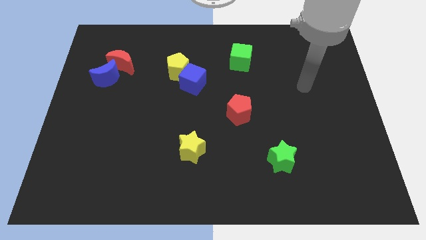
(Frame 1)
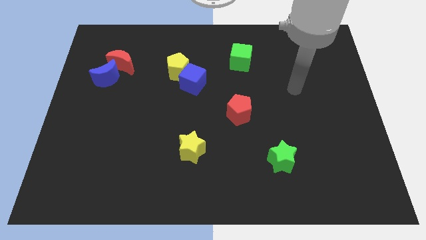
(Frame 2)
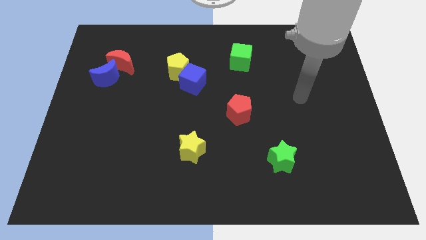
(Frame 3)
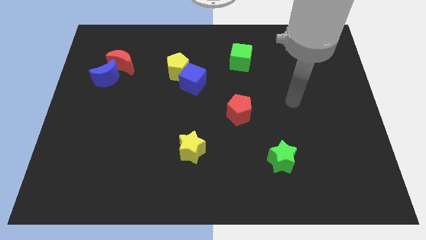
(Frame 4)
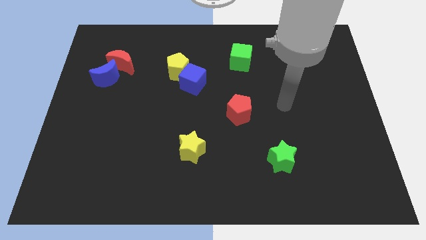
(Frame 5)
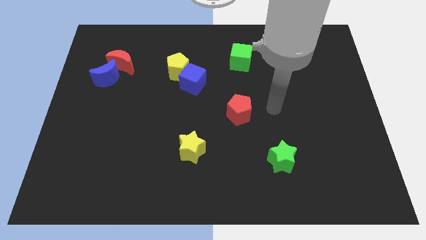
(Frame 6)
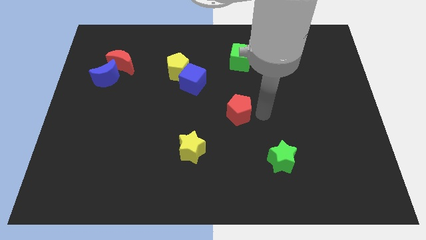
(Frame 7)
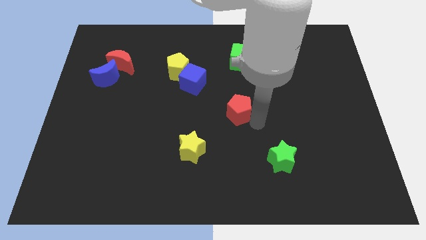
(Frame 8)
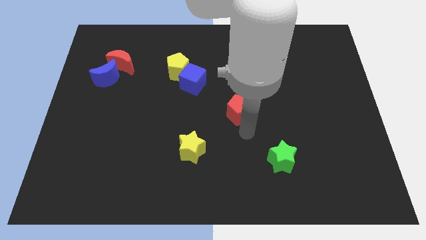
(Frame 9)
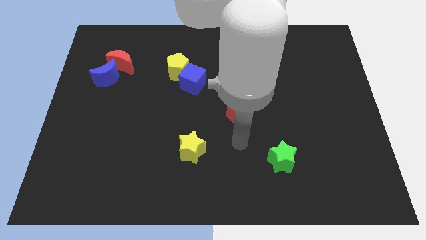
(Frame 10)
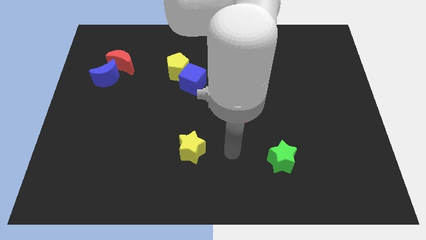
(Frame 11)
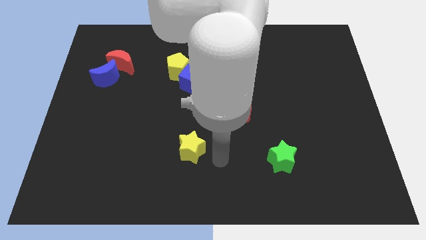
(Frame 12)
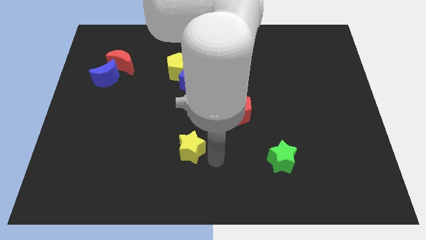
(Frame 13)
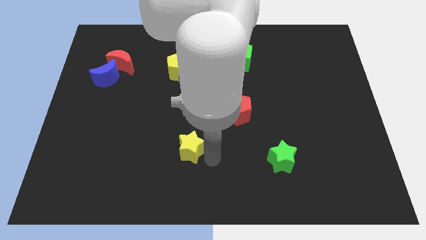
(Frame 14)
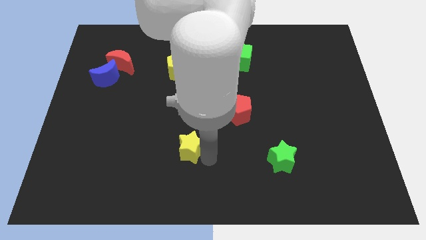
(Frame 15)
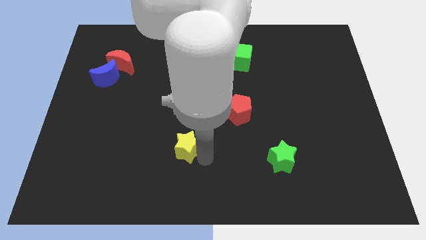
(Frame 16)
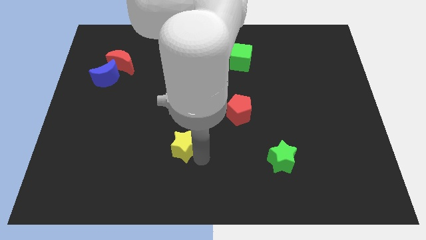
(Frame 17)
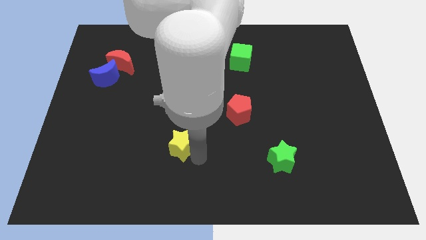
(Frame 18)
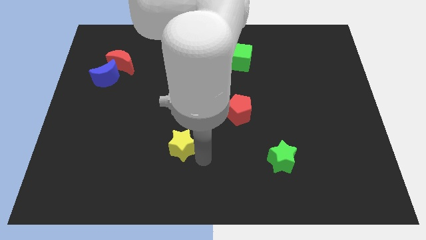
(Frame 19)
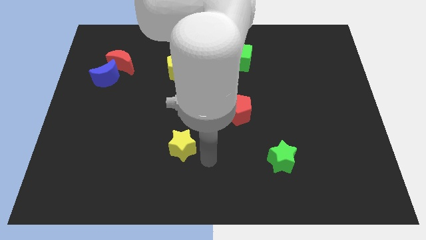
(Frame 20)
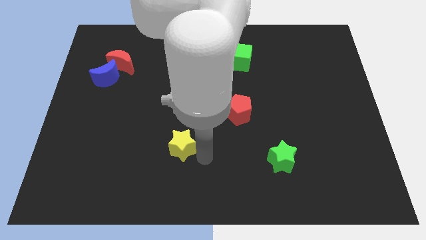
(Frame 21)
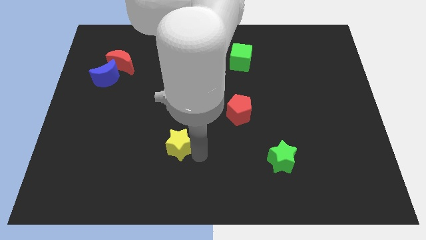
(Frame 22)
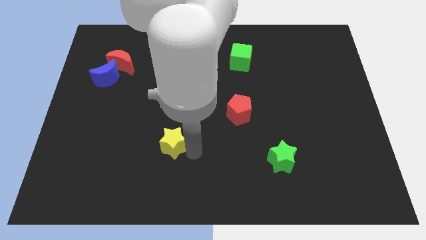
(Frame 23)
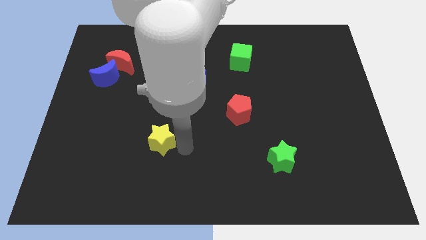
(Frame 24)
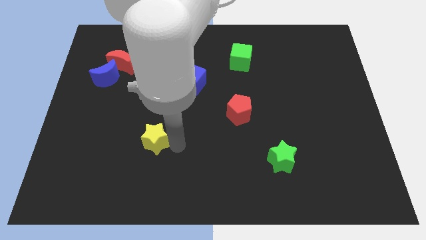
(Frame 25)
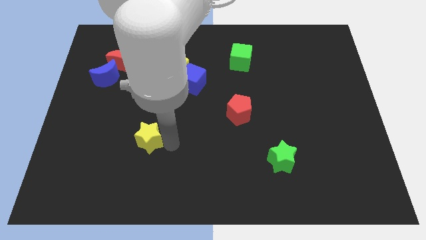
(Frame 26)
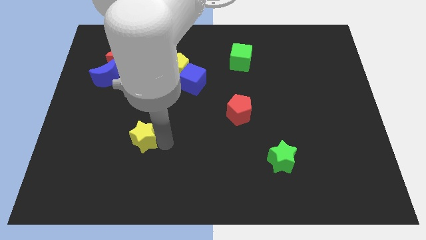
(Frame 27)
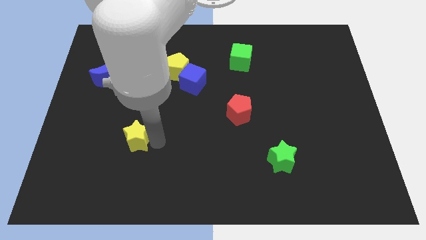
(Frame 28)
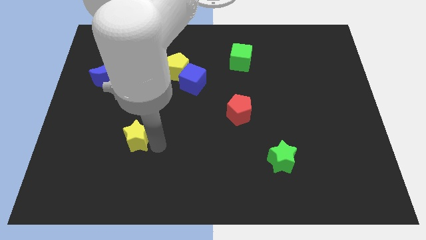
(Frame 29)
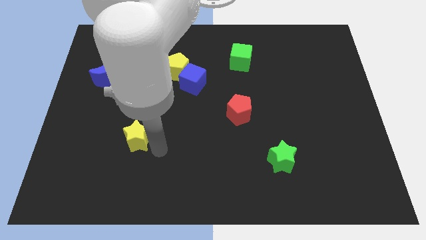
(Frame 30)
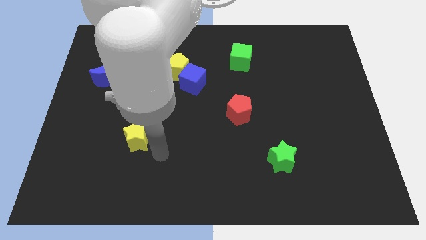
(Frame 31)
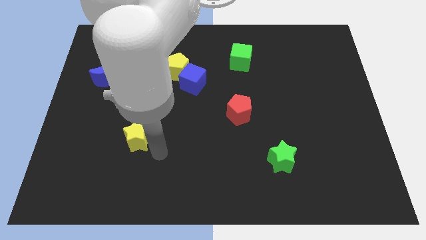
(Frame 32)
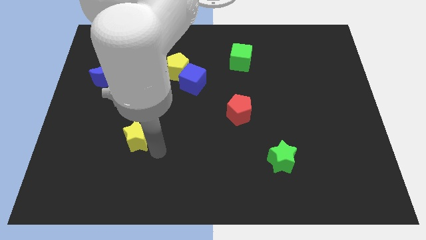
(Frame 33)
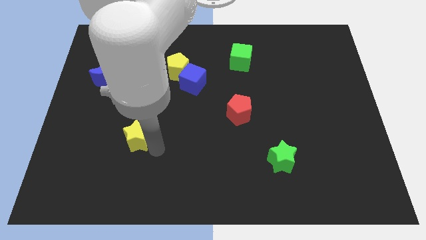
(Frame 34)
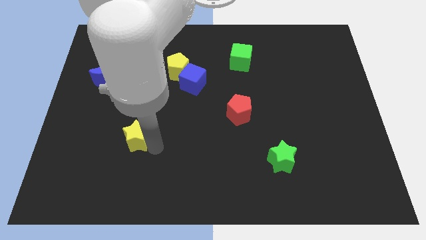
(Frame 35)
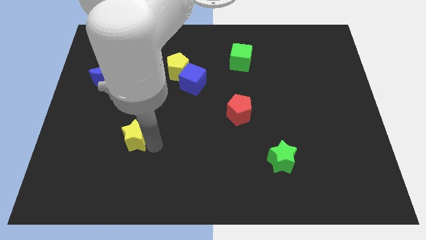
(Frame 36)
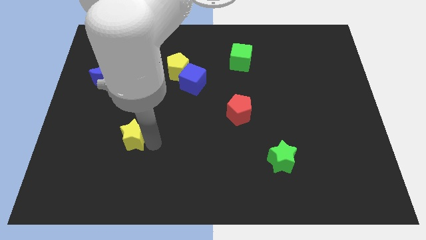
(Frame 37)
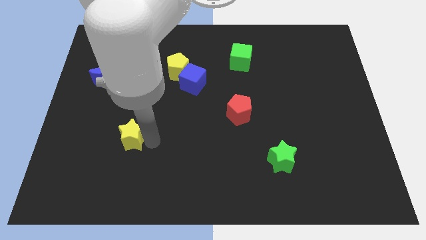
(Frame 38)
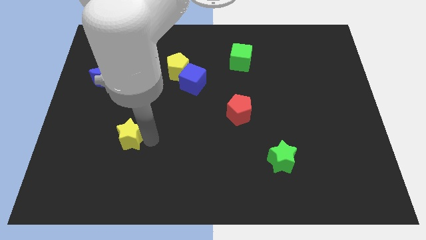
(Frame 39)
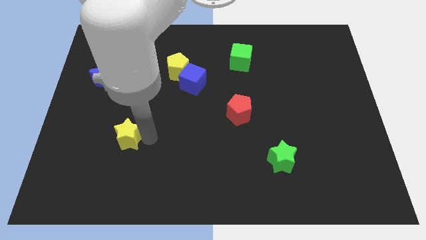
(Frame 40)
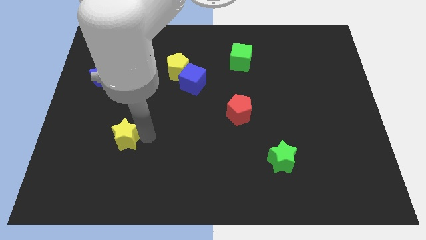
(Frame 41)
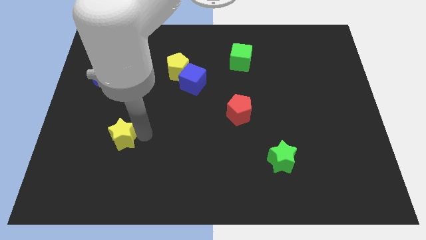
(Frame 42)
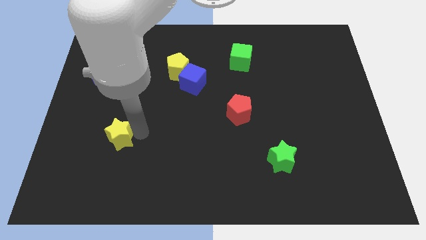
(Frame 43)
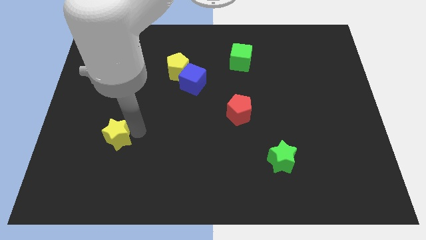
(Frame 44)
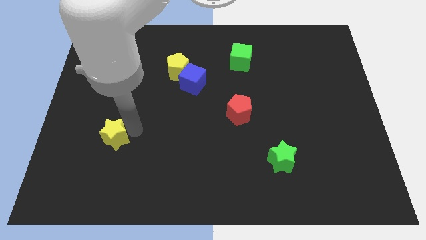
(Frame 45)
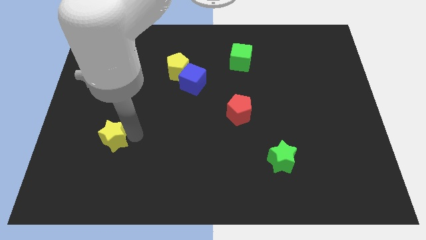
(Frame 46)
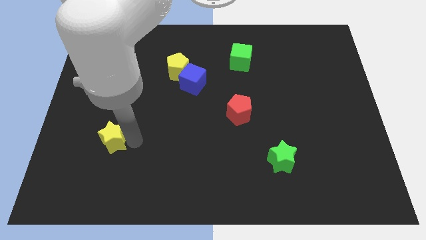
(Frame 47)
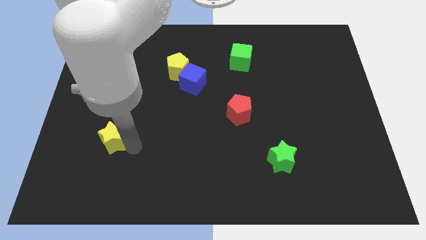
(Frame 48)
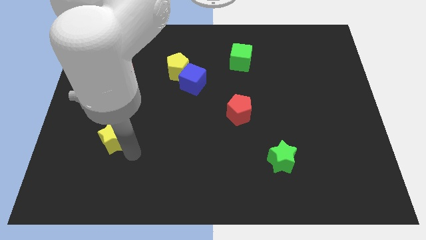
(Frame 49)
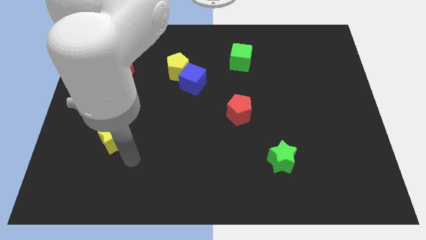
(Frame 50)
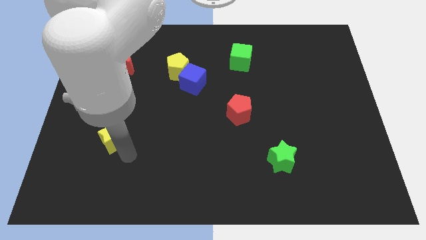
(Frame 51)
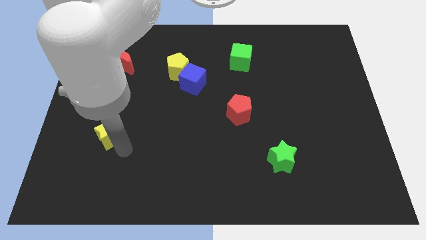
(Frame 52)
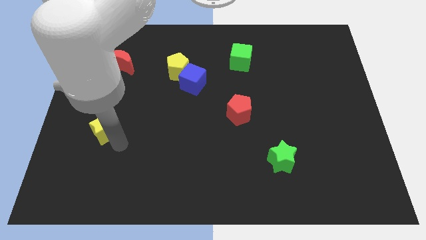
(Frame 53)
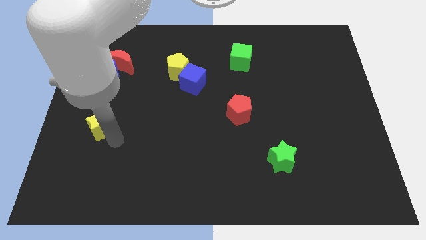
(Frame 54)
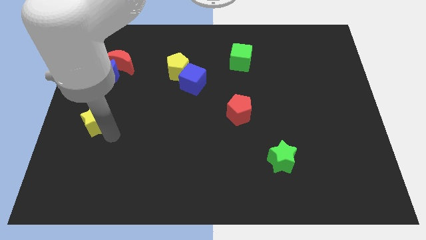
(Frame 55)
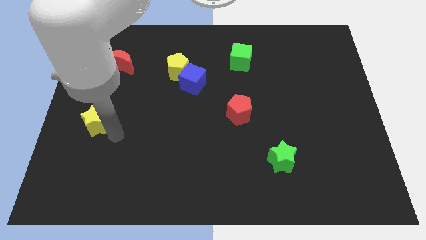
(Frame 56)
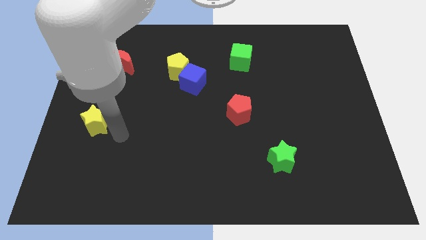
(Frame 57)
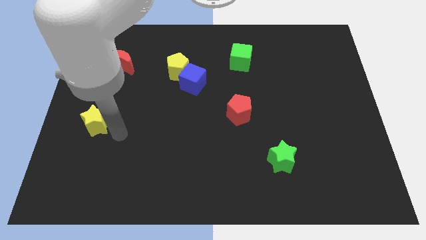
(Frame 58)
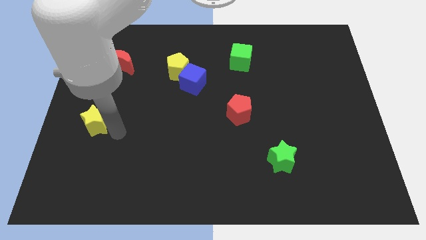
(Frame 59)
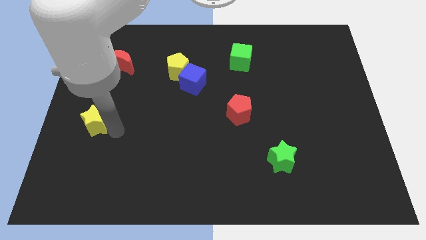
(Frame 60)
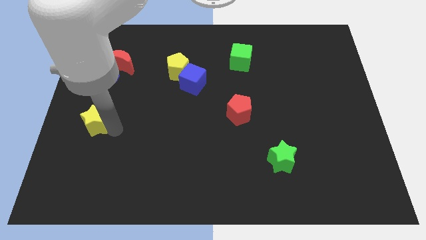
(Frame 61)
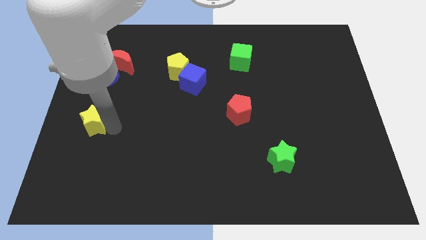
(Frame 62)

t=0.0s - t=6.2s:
put the yellow star to the center left
